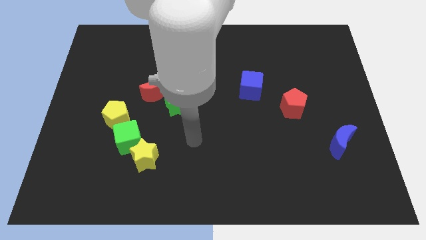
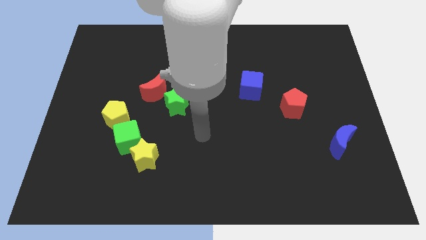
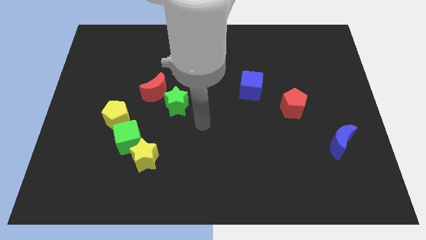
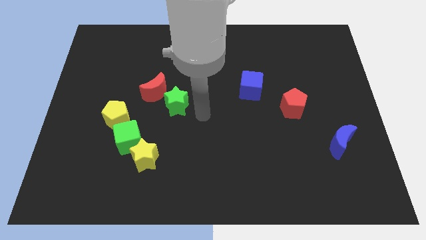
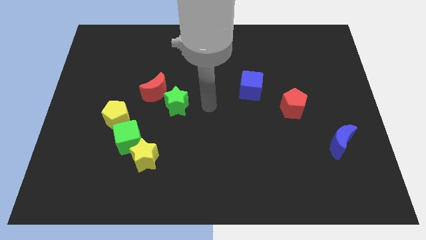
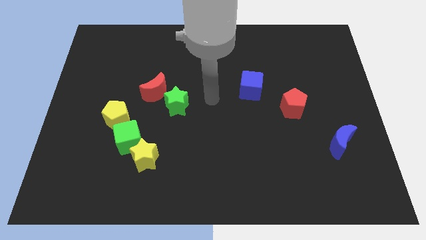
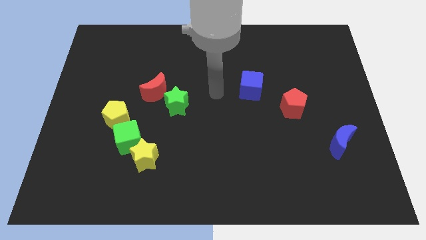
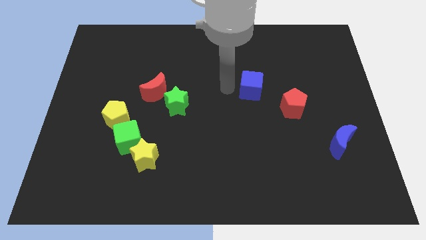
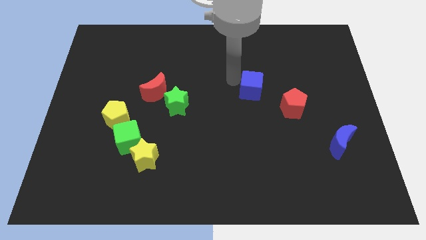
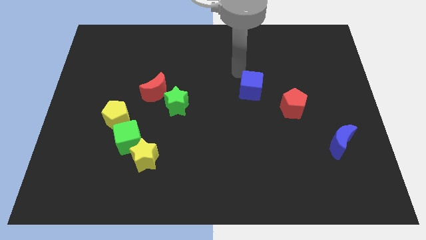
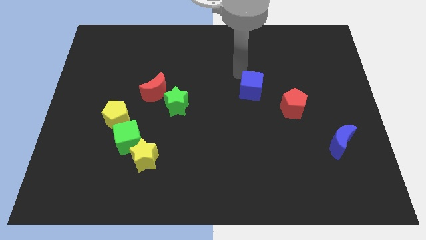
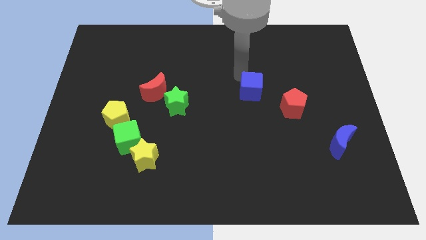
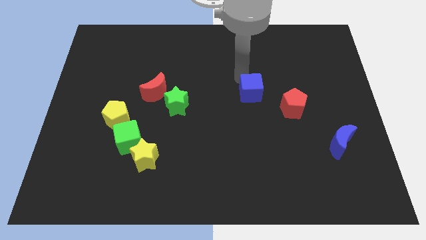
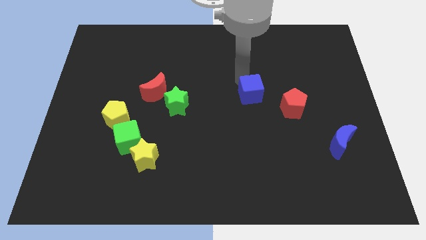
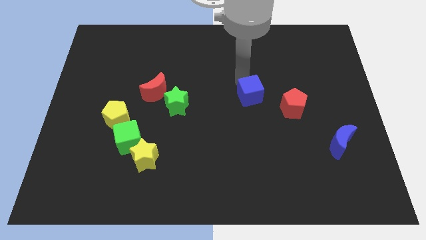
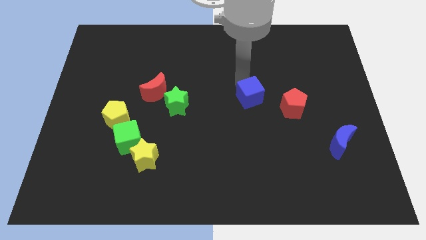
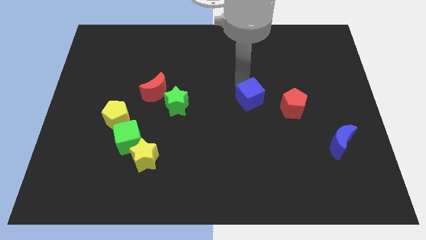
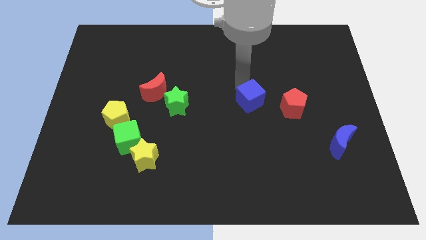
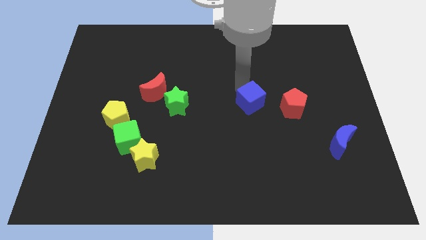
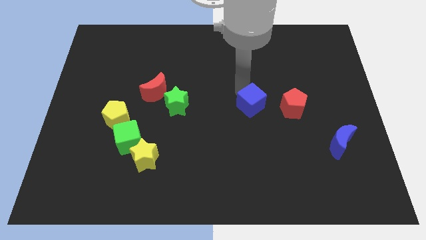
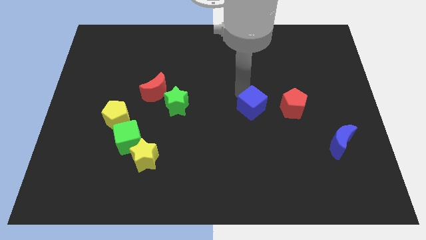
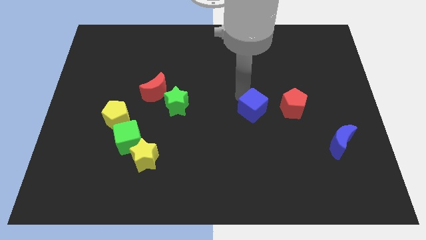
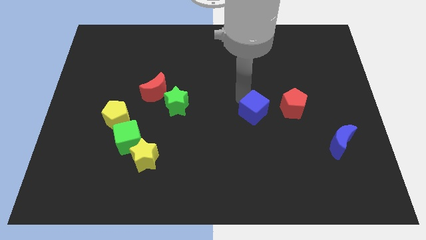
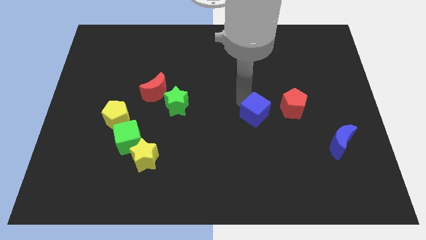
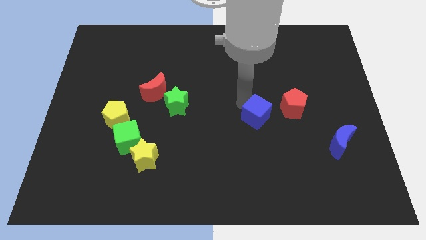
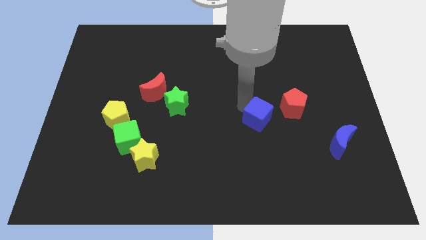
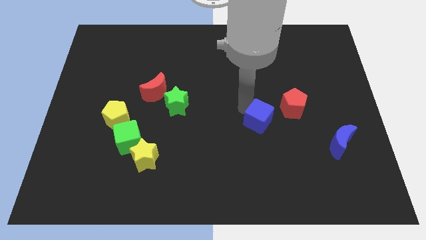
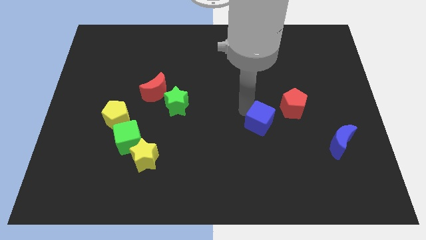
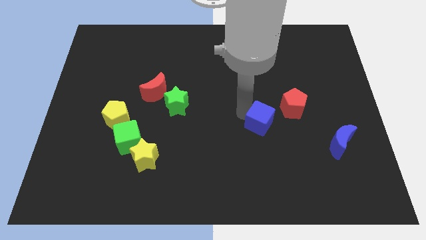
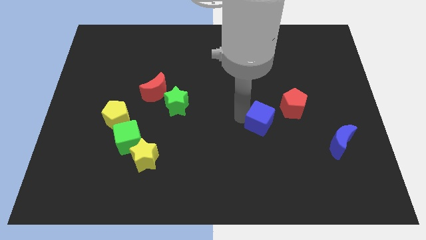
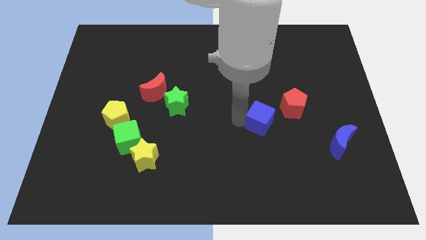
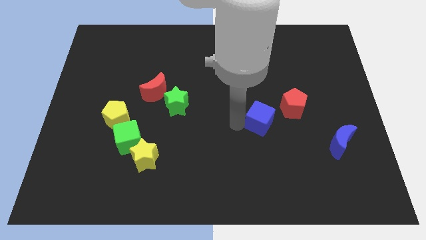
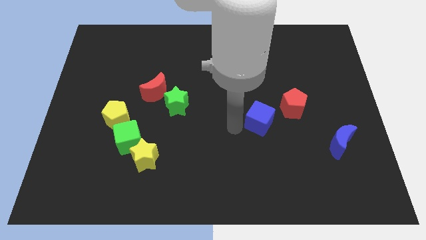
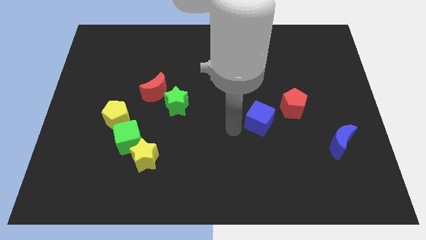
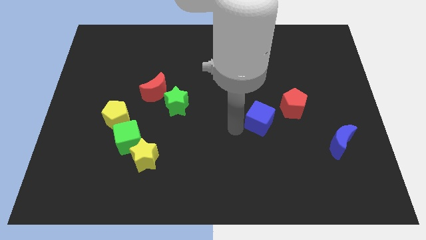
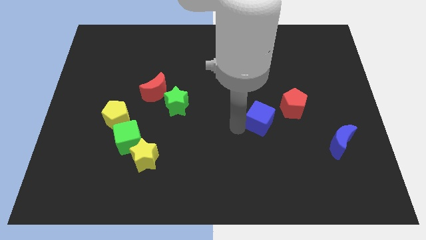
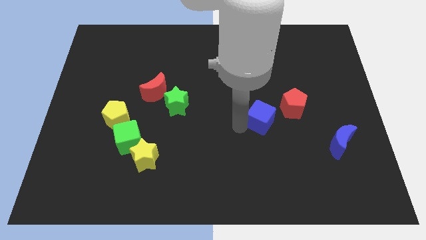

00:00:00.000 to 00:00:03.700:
slightly slide the blue cube downwards and to the right diagonally

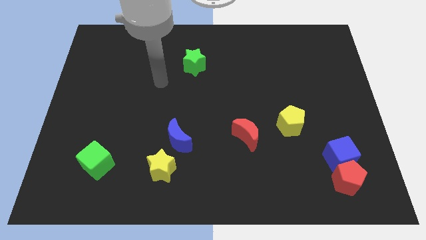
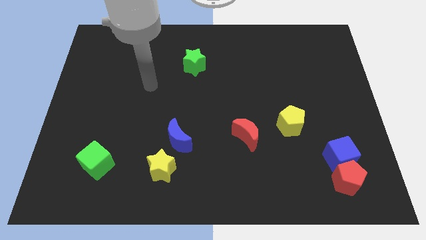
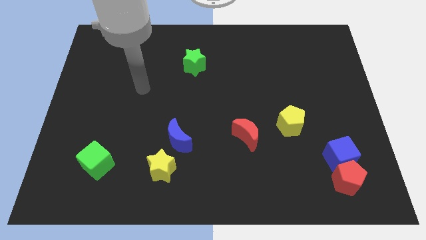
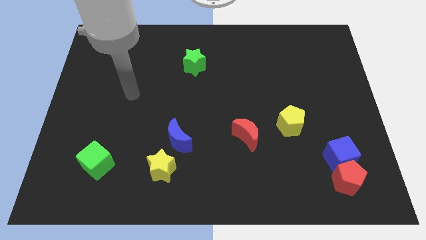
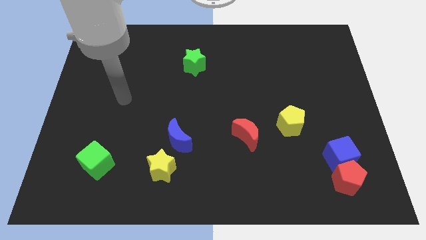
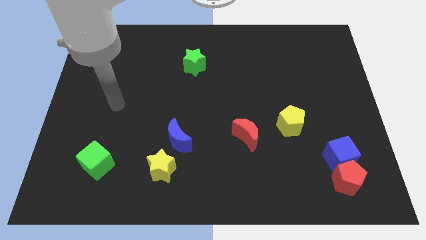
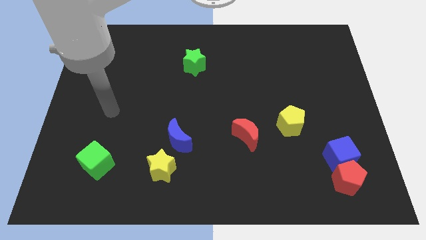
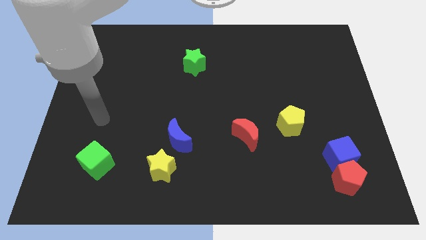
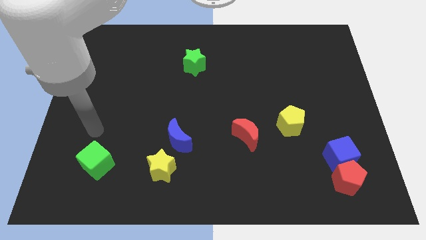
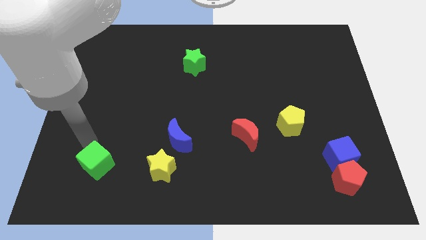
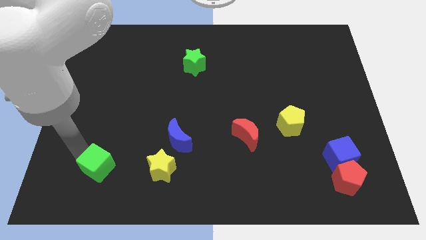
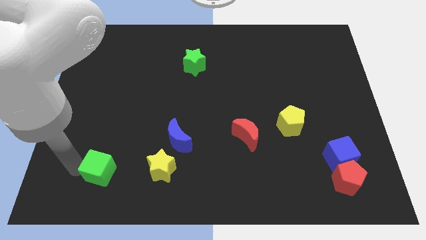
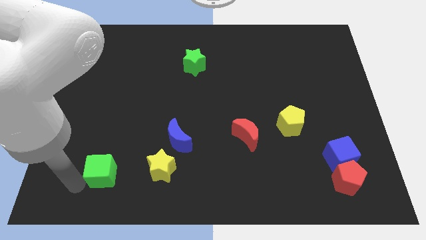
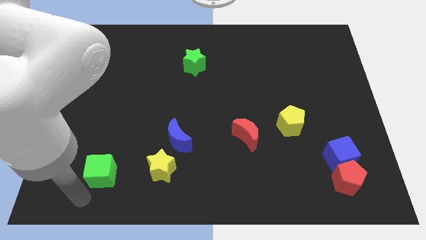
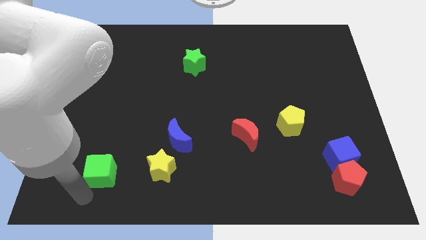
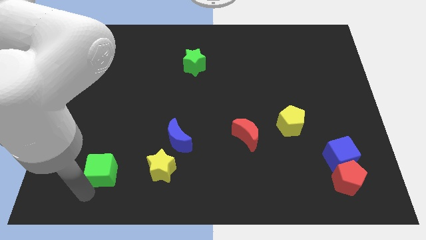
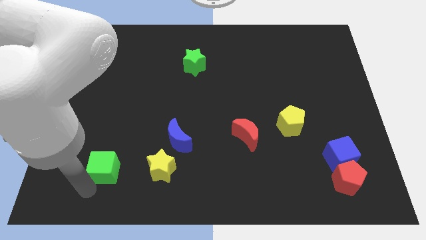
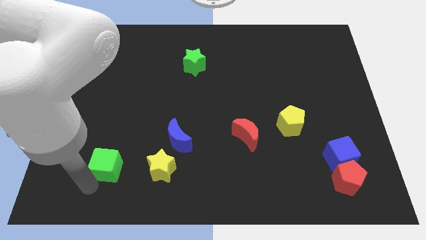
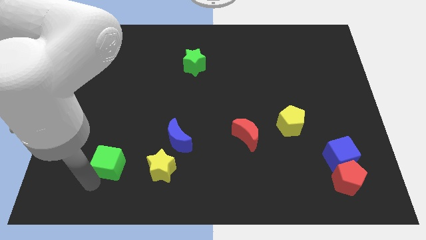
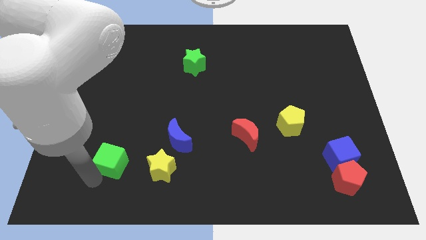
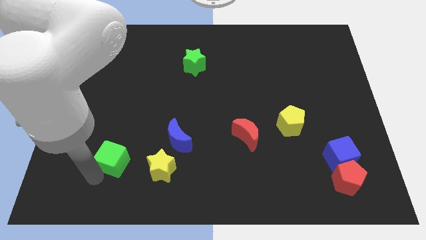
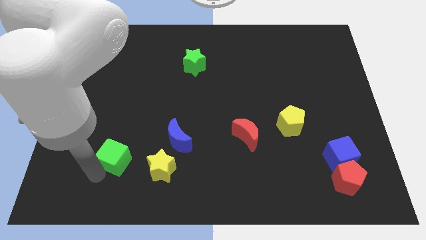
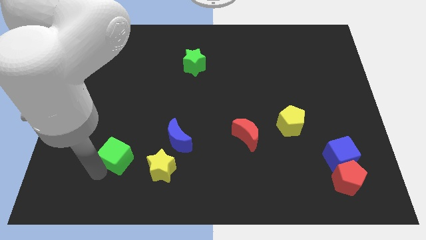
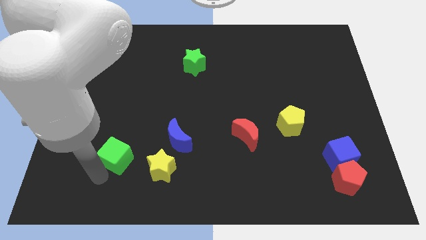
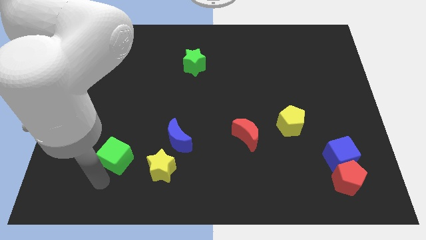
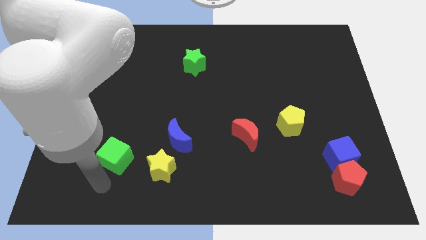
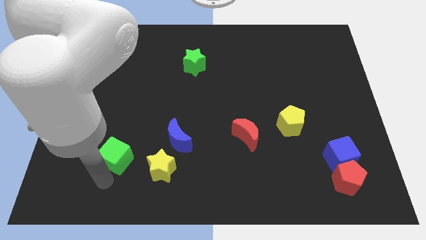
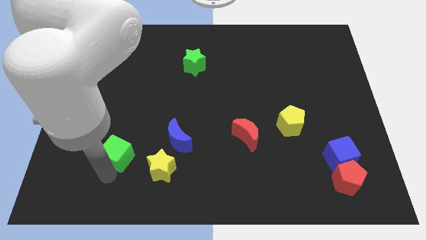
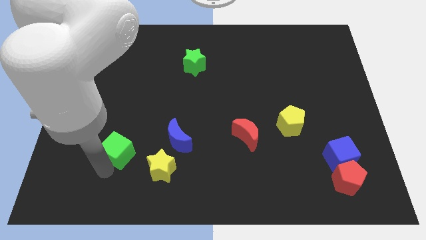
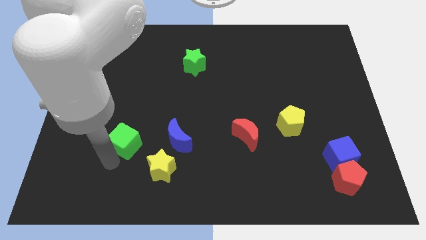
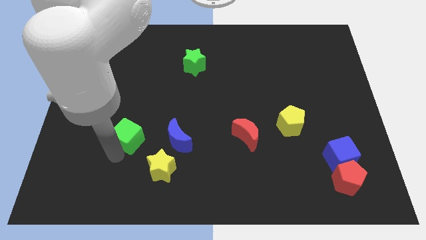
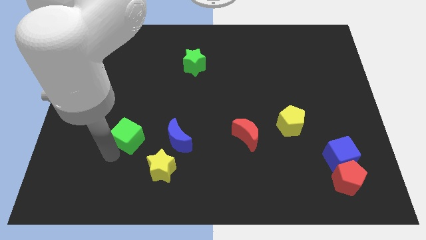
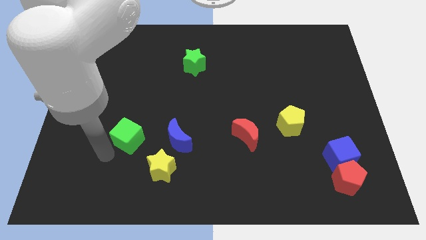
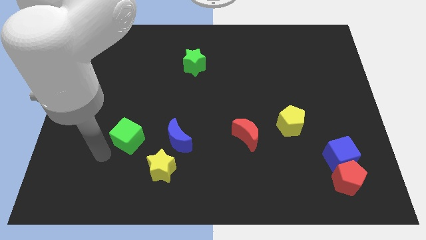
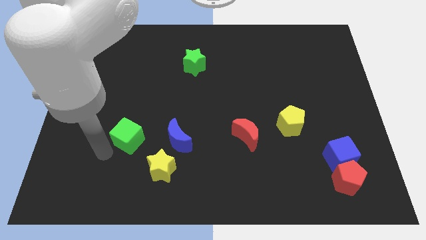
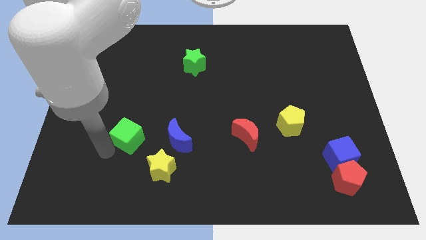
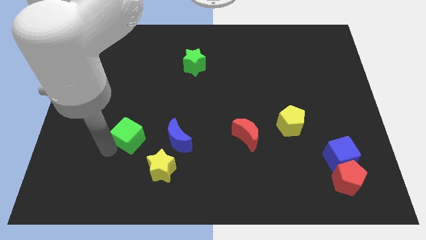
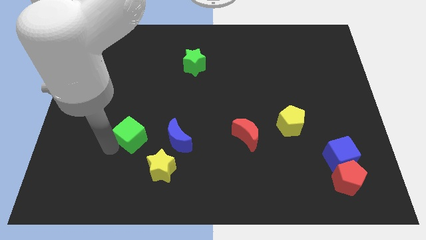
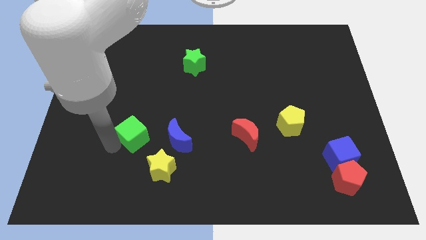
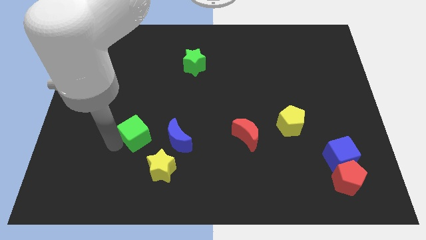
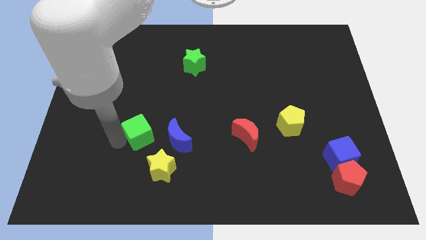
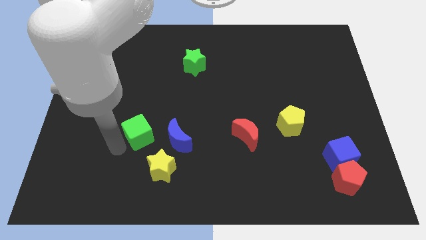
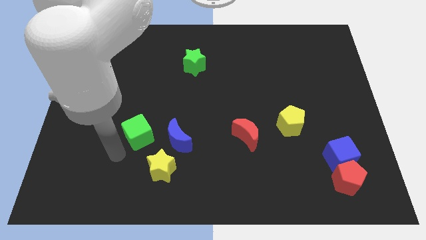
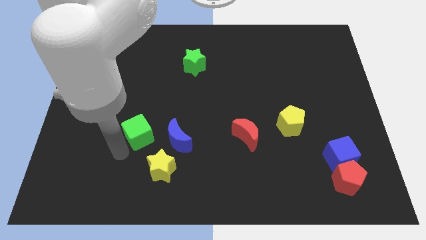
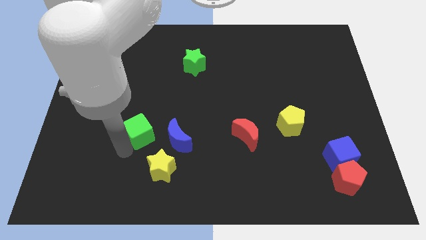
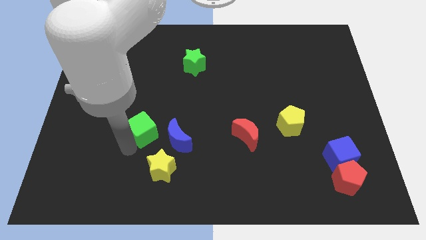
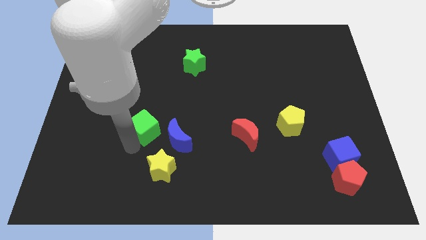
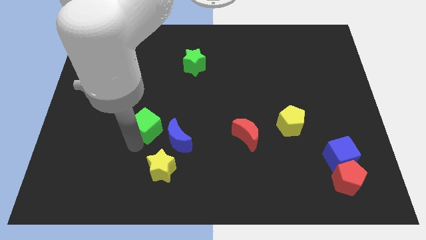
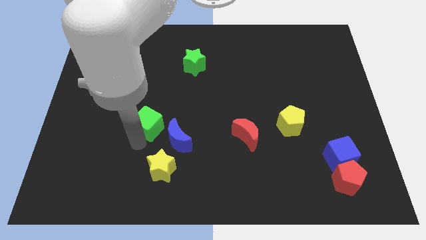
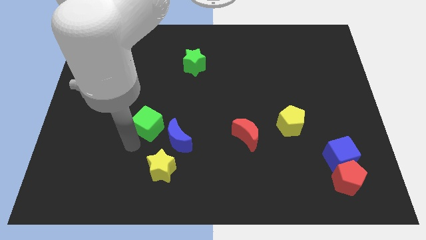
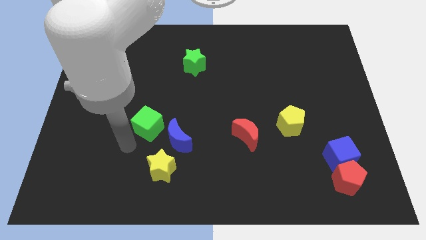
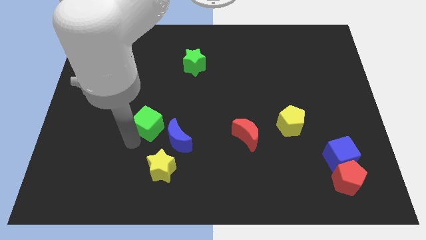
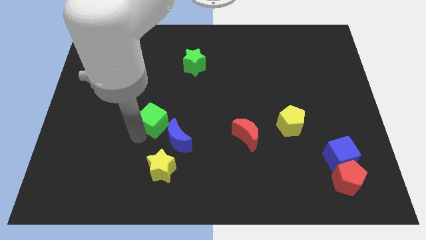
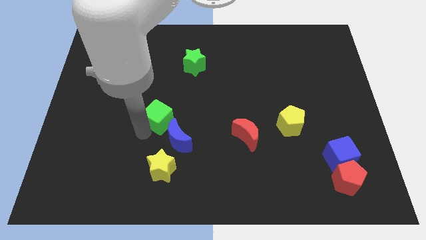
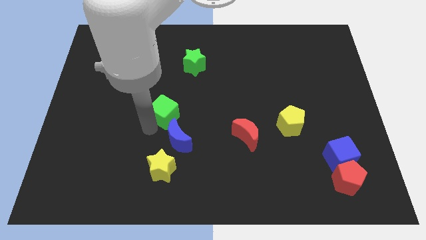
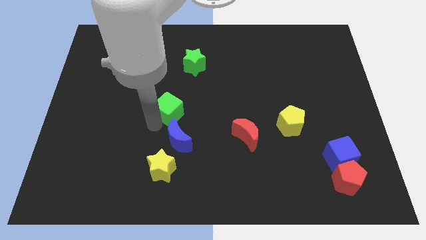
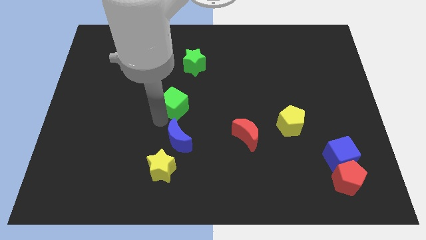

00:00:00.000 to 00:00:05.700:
slide the green cube diagonally up and to the right
